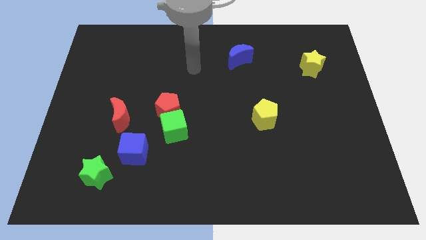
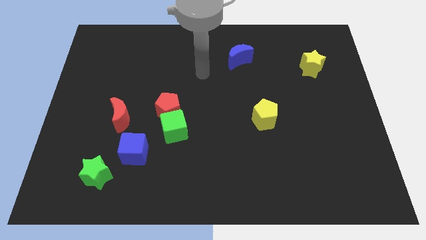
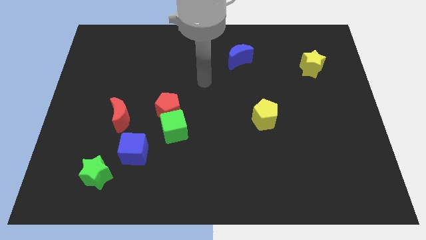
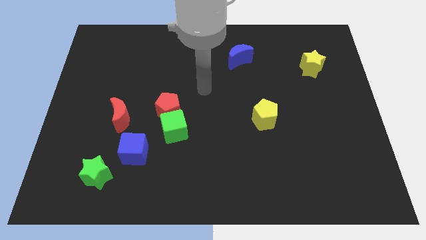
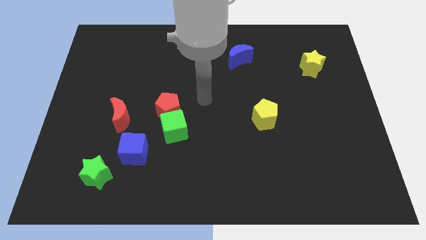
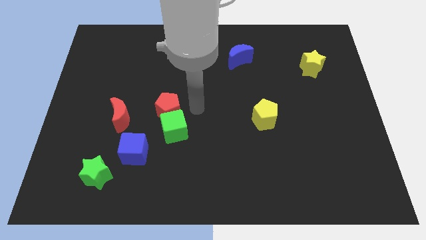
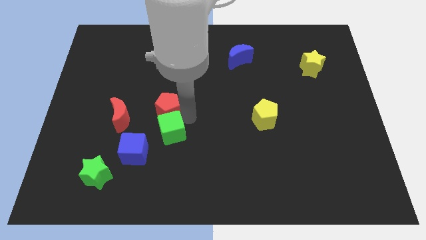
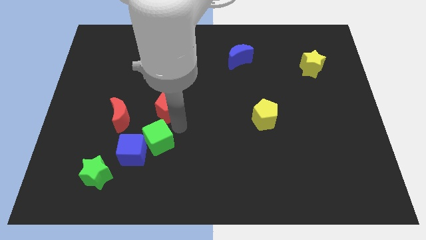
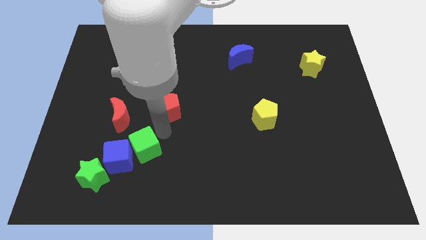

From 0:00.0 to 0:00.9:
move the red pentagon away from the green cube

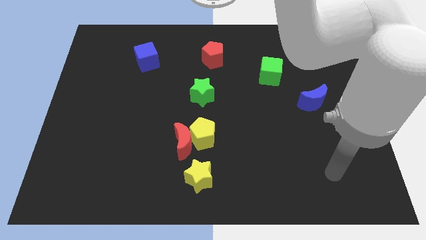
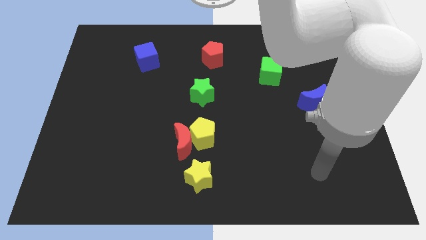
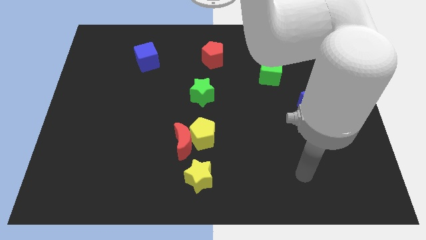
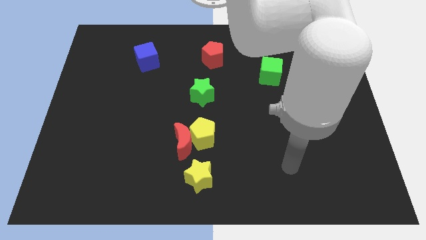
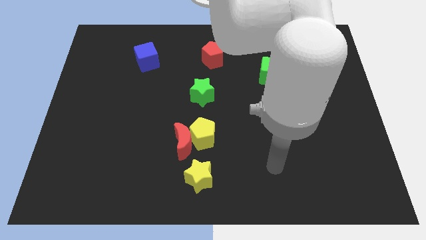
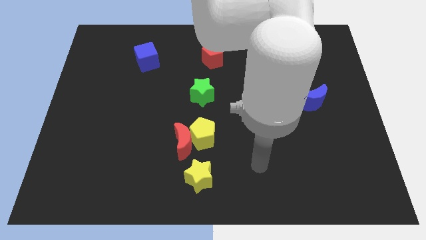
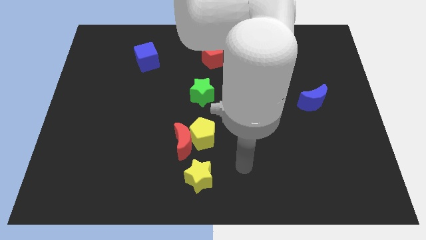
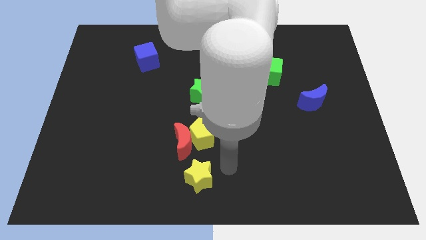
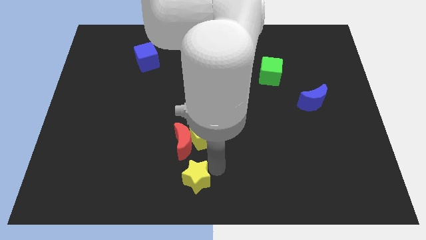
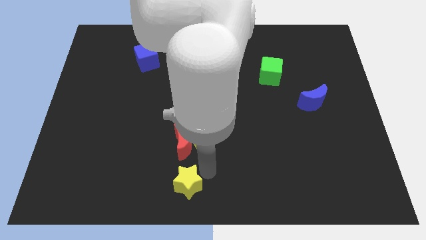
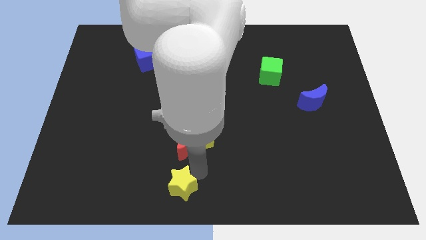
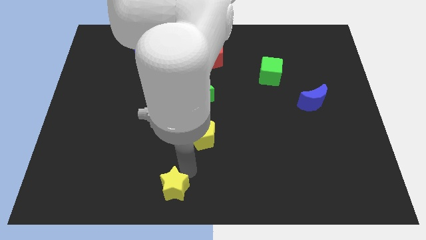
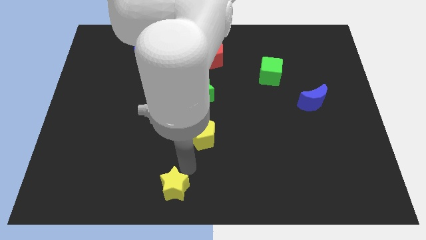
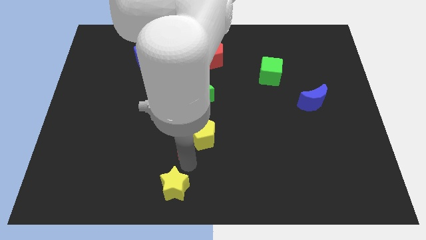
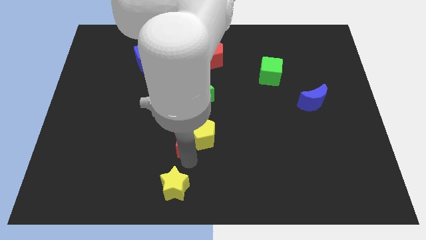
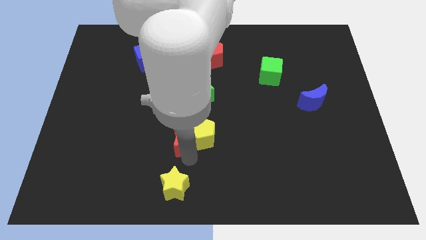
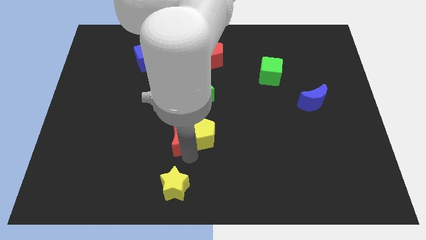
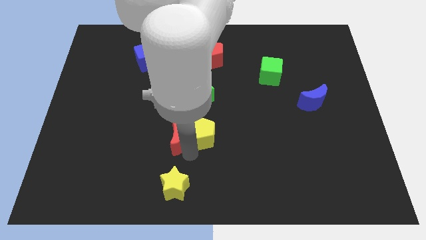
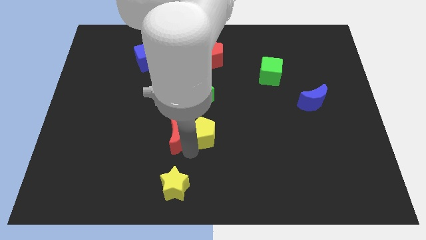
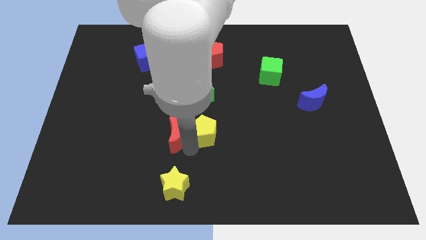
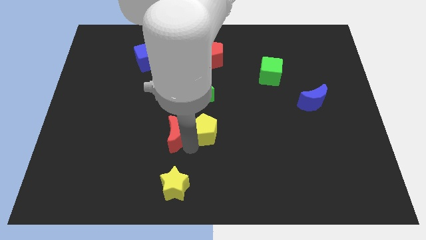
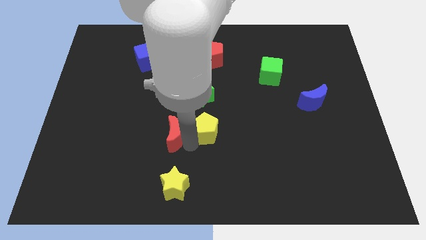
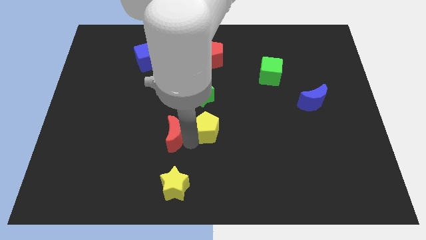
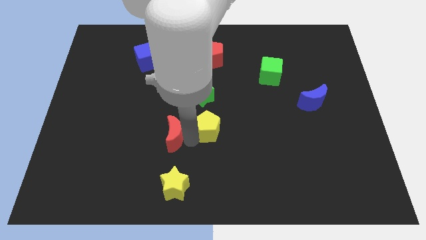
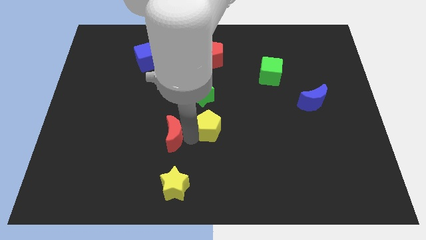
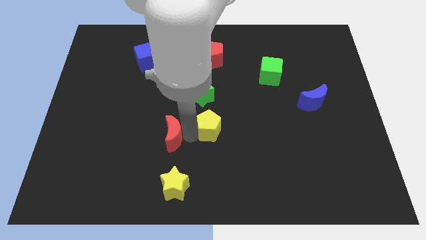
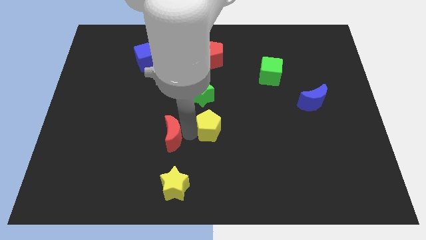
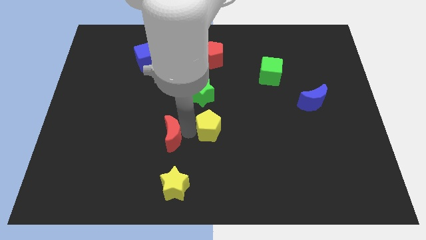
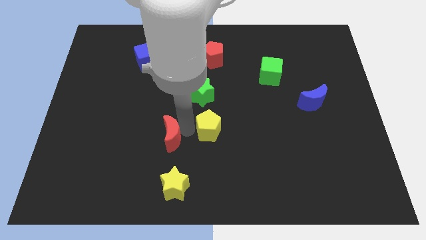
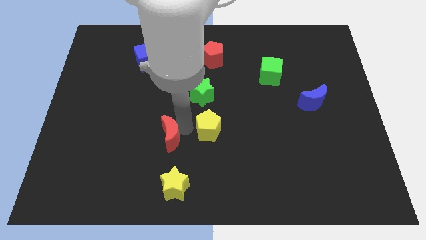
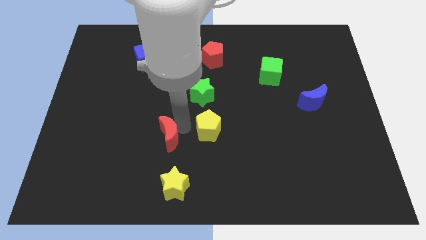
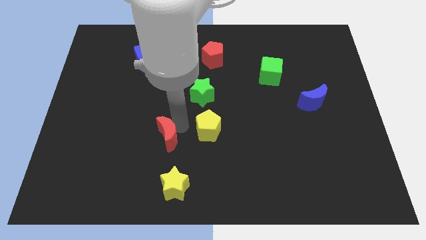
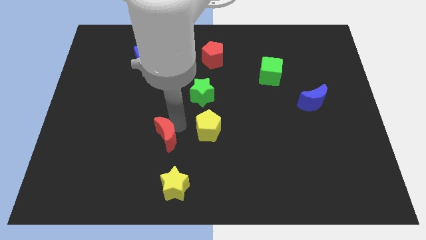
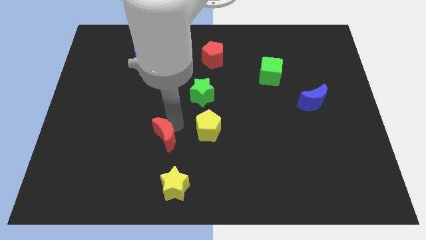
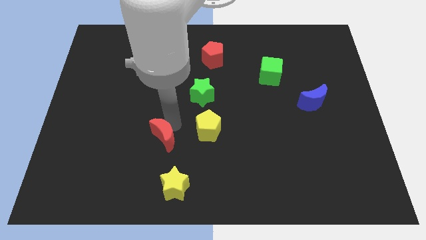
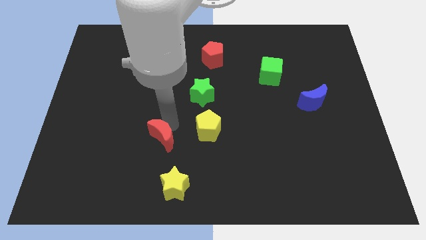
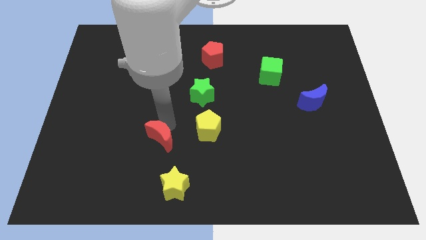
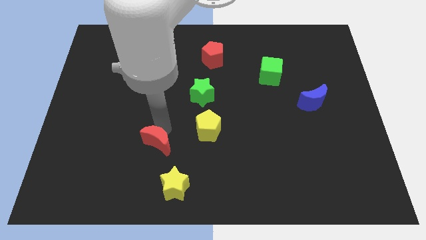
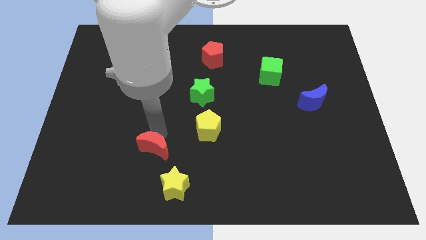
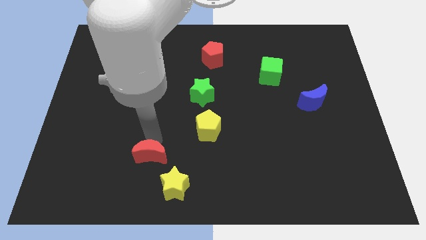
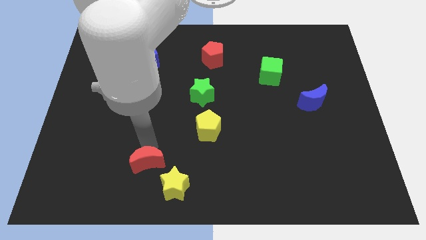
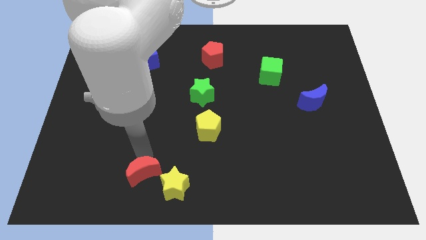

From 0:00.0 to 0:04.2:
move the red moon away from the yellow pentagon and yellow star

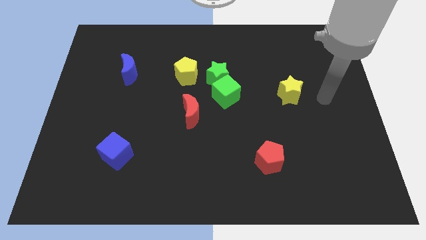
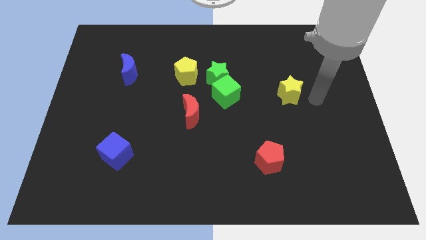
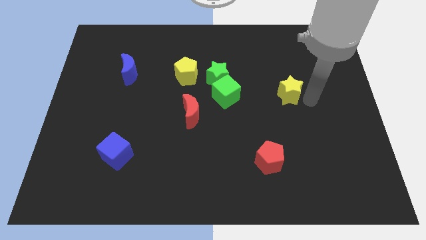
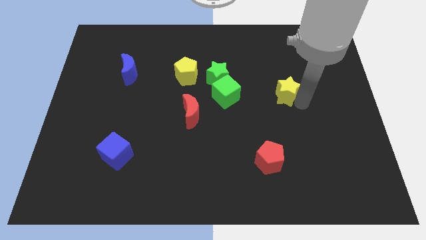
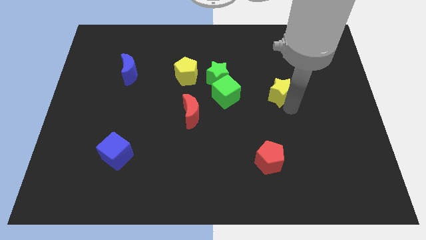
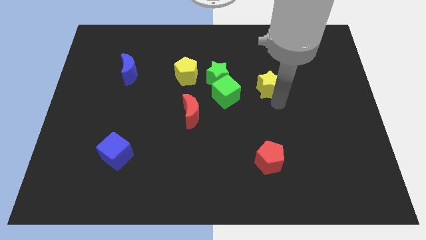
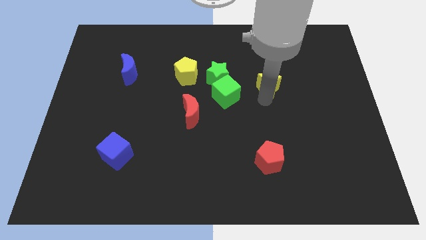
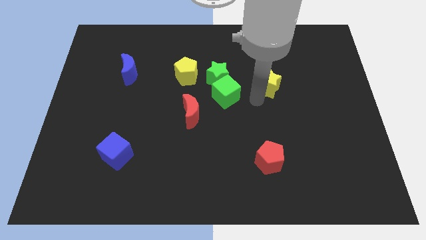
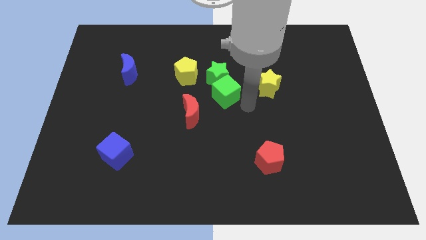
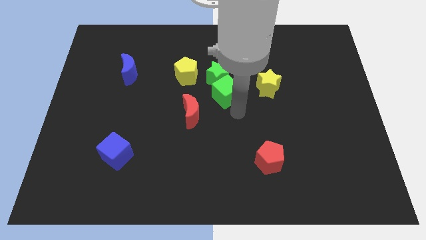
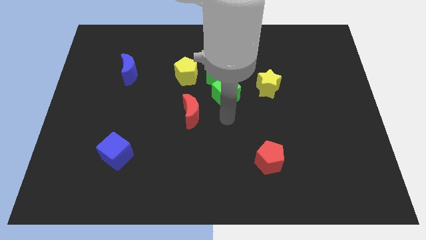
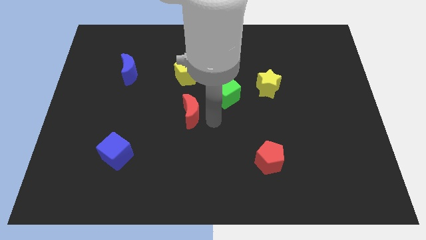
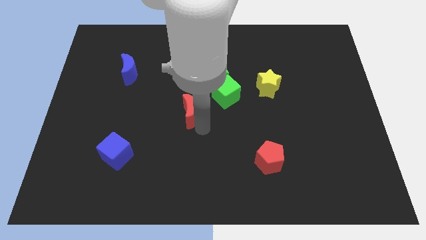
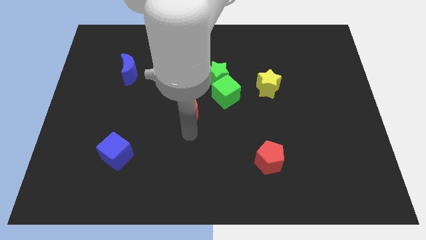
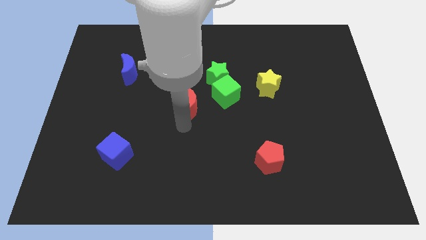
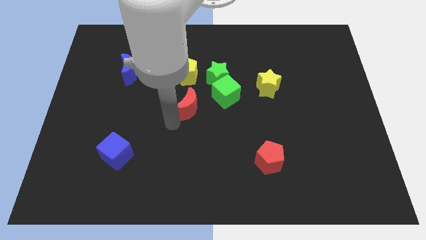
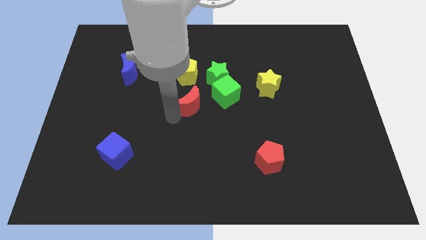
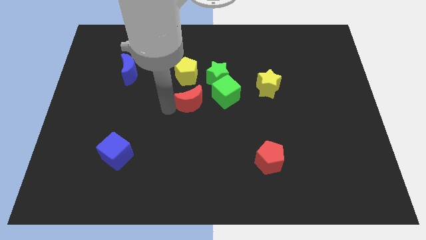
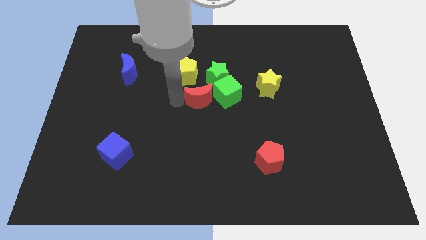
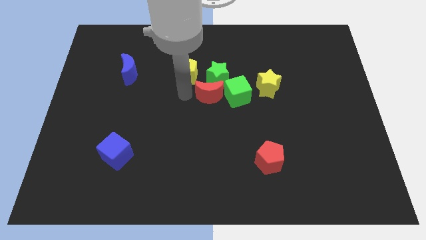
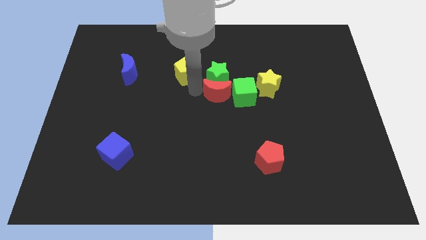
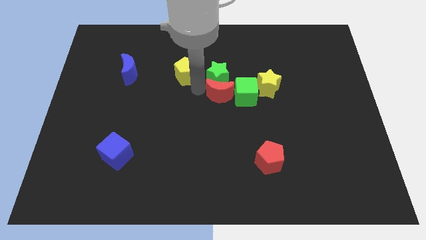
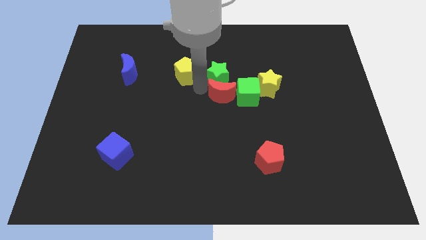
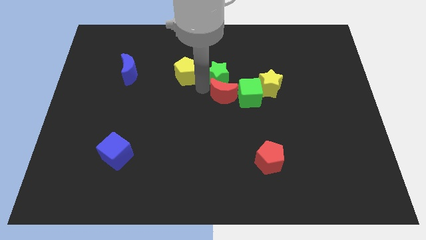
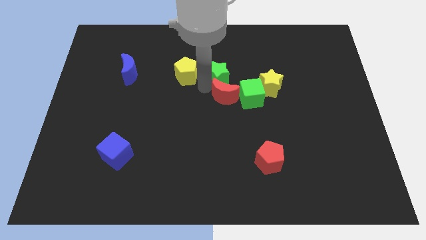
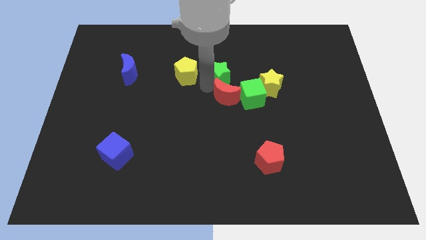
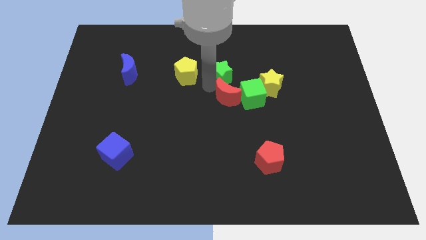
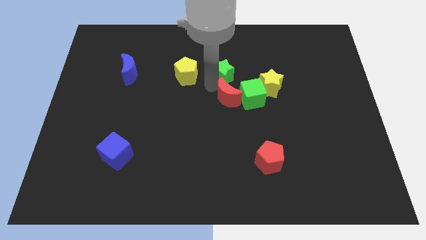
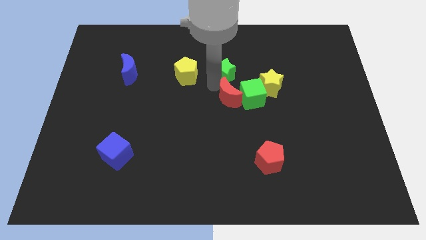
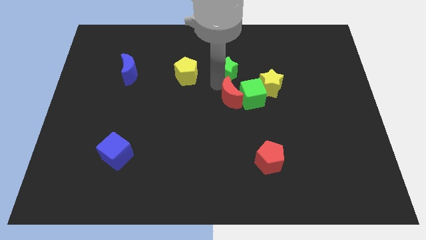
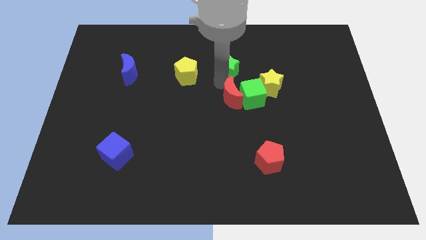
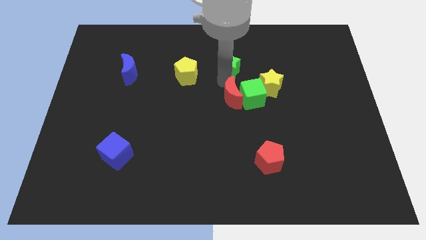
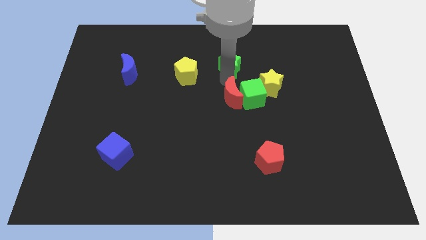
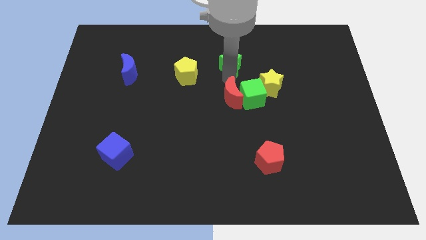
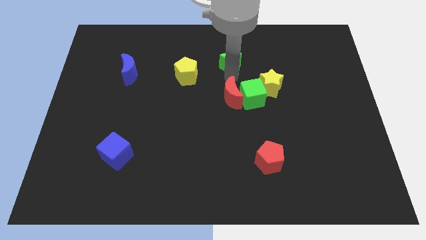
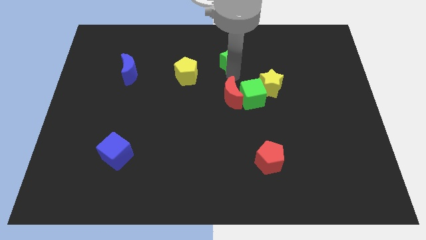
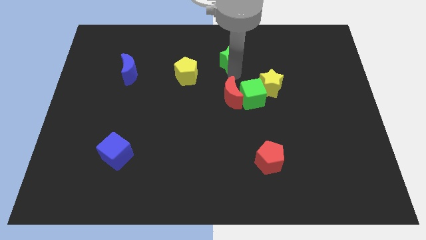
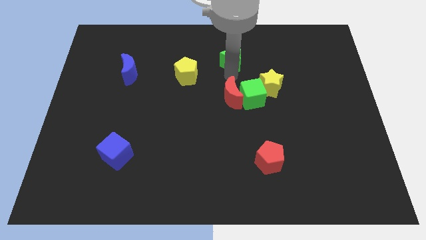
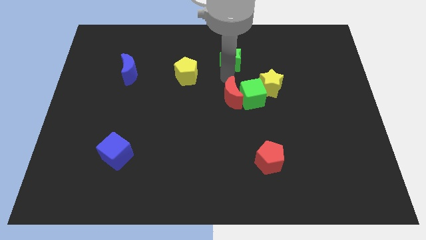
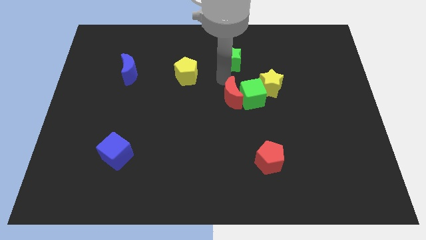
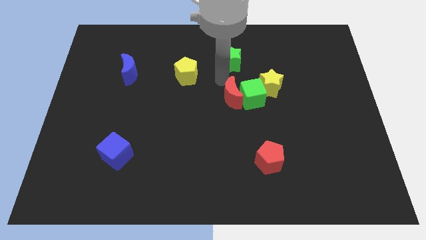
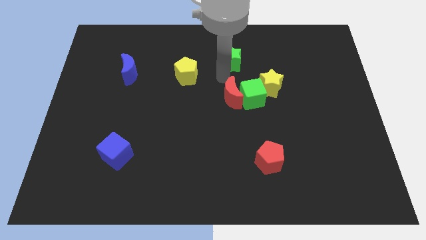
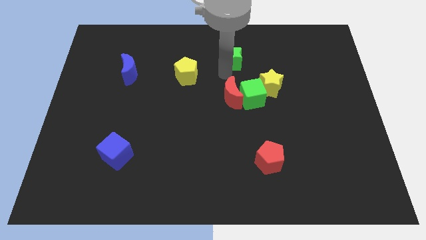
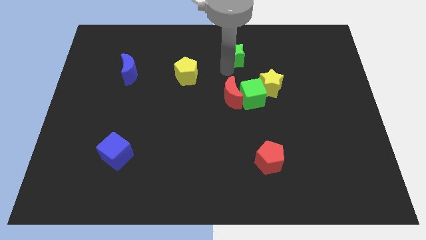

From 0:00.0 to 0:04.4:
pull the green star apart from the green cube and yellow pentagon
